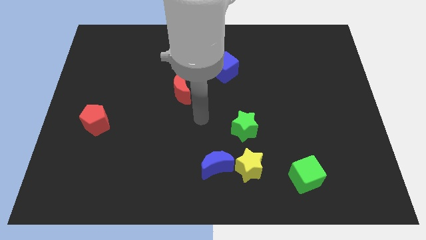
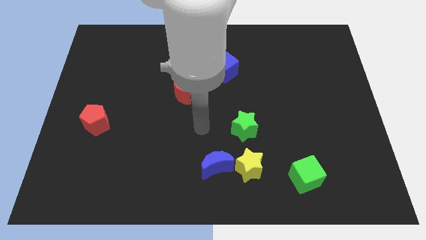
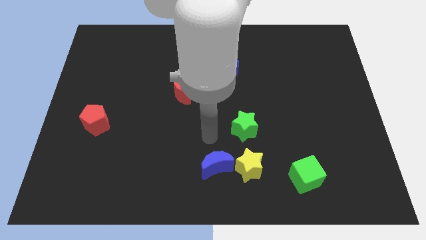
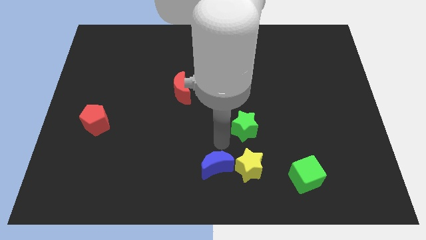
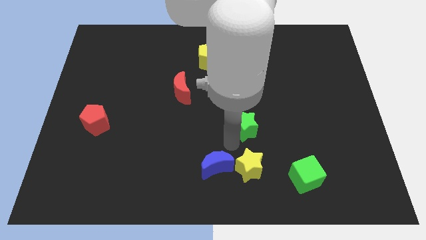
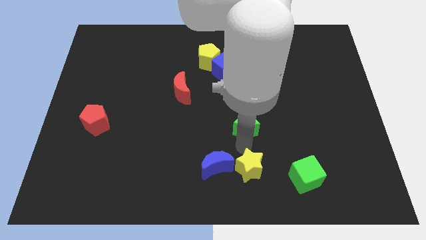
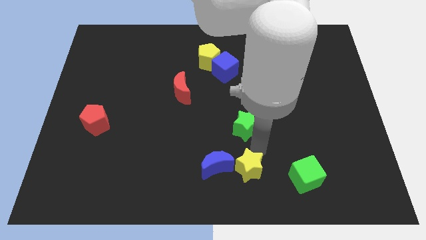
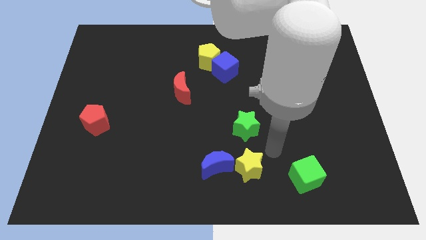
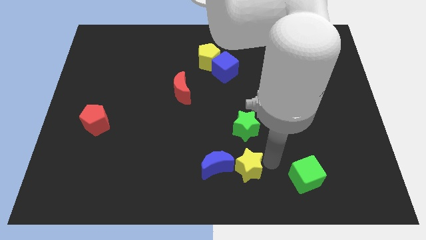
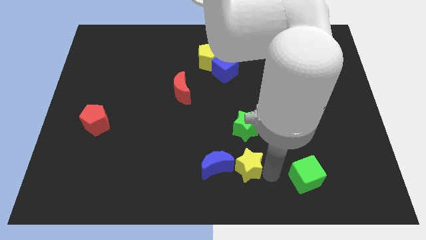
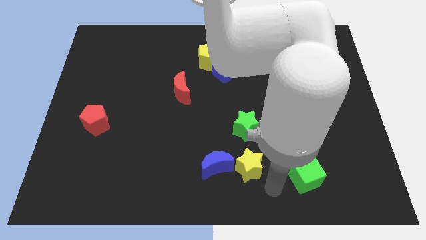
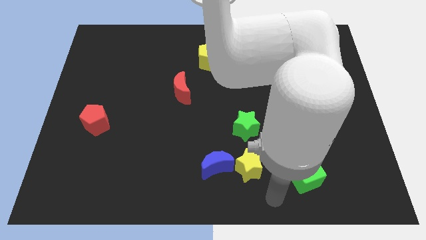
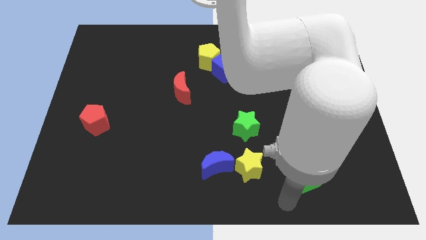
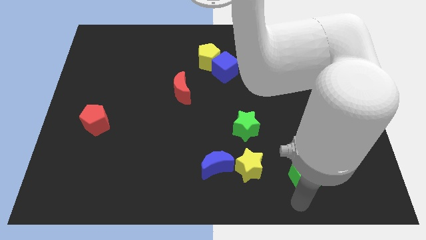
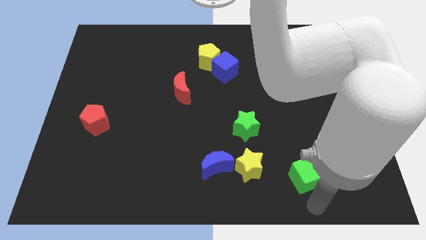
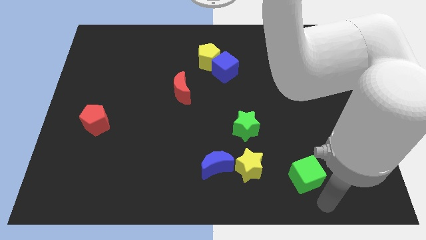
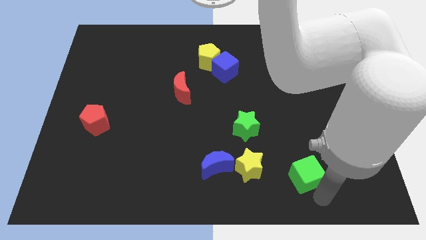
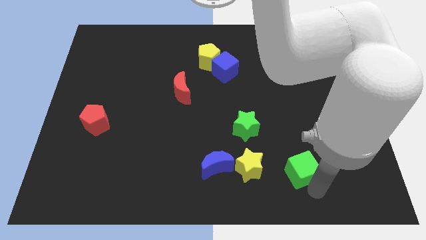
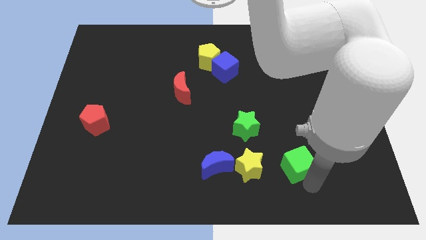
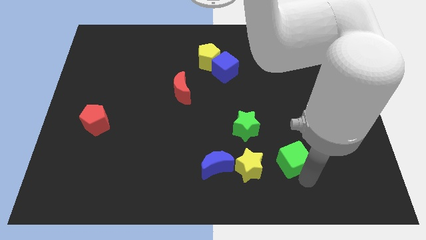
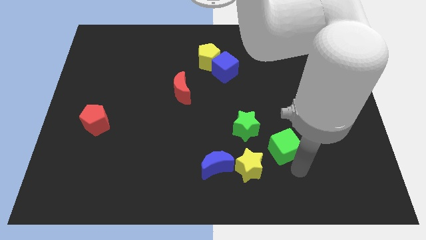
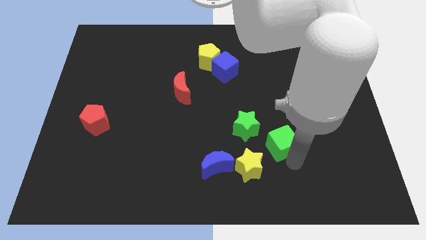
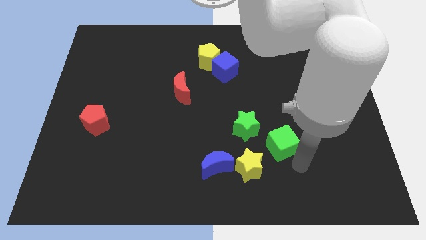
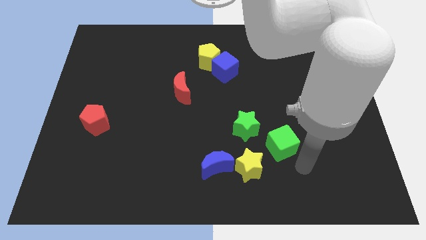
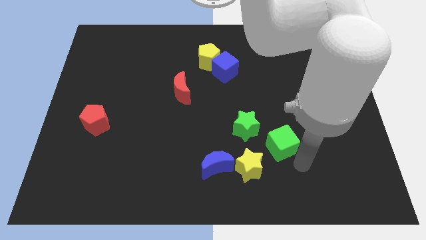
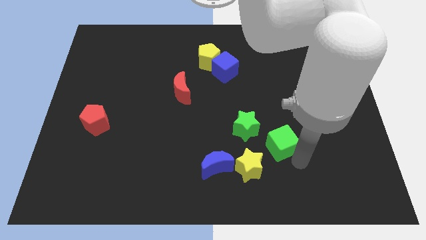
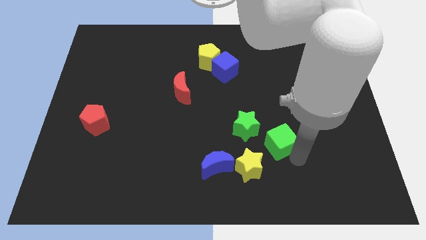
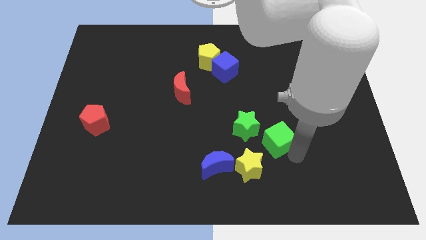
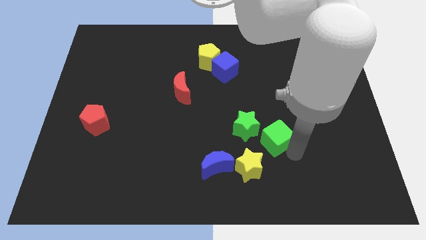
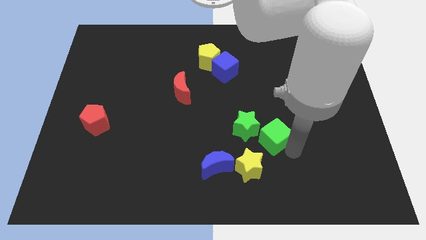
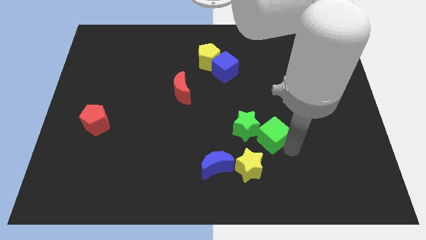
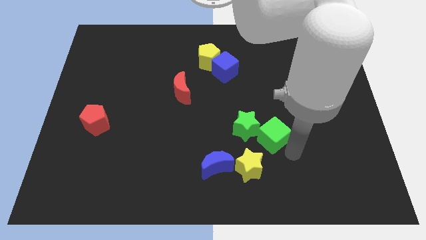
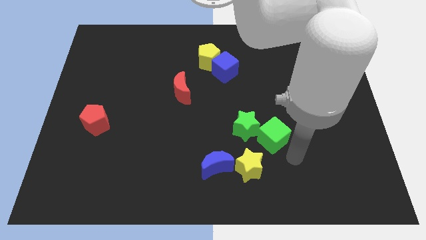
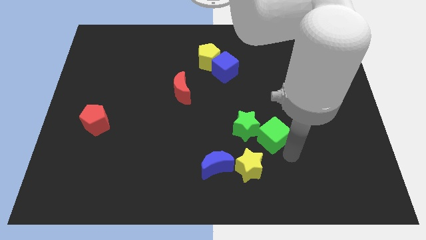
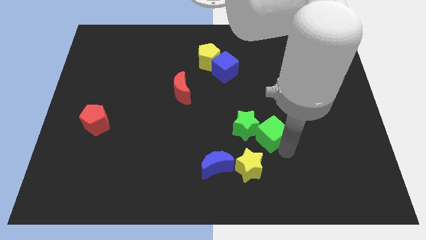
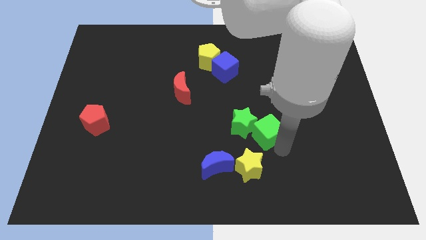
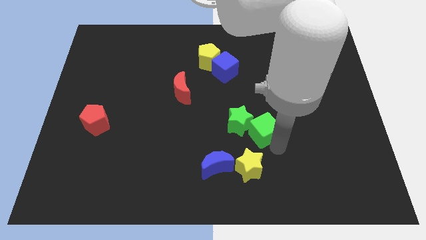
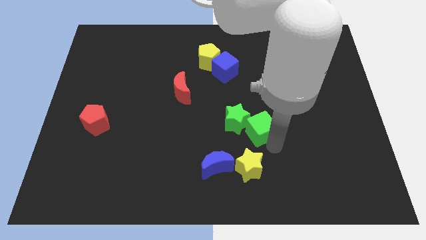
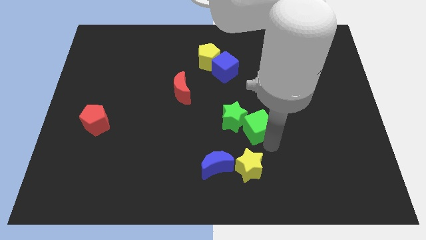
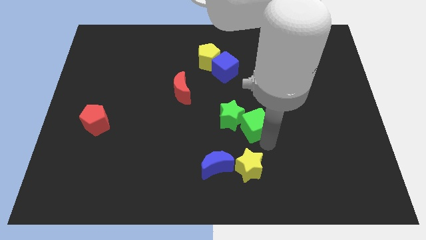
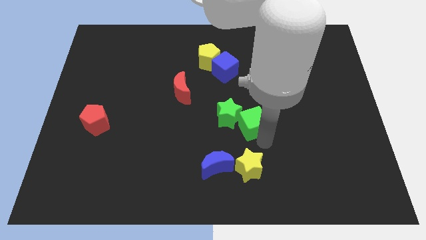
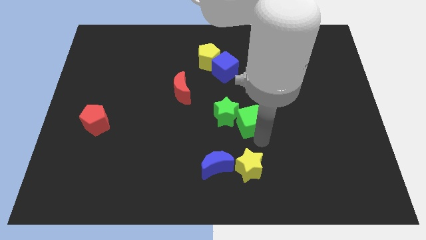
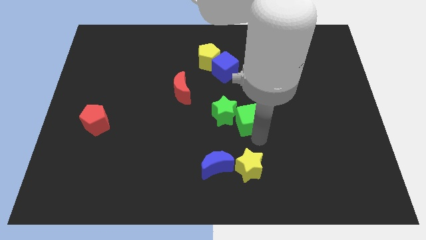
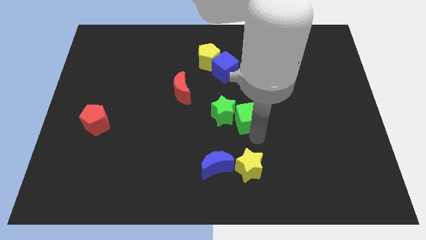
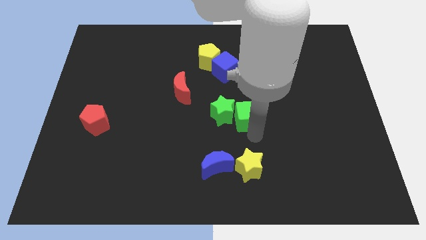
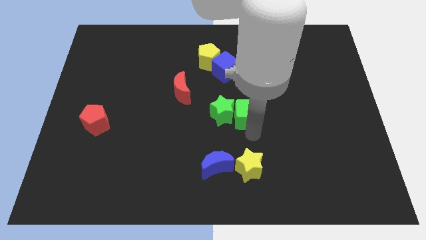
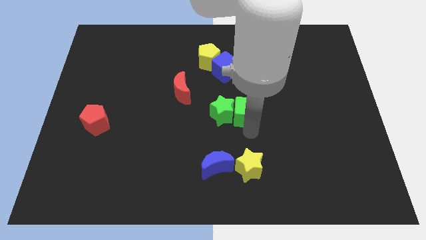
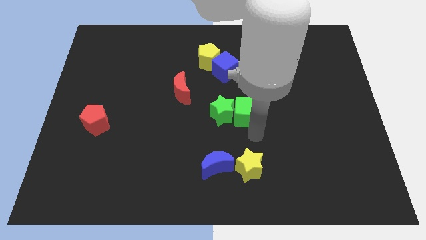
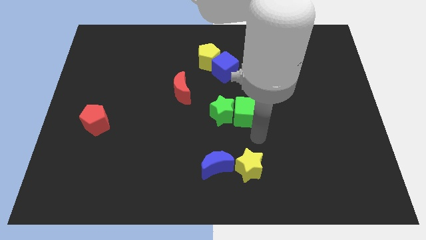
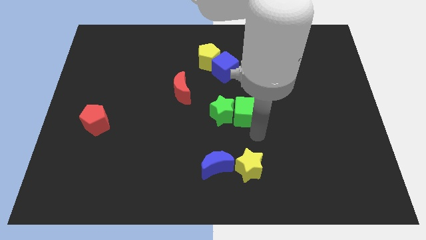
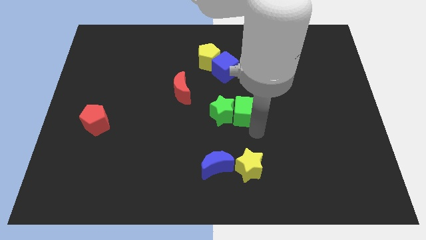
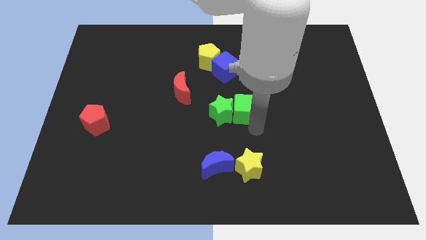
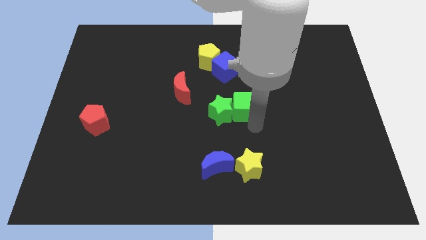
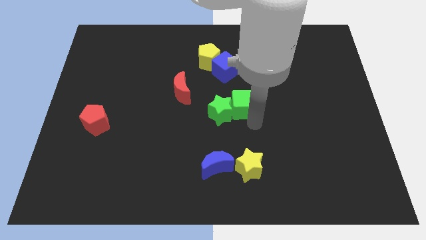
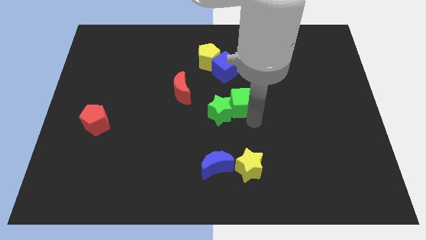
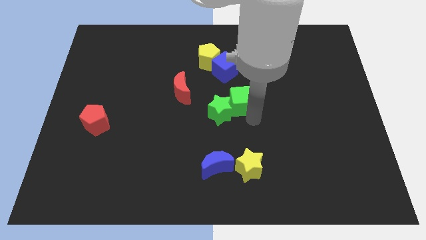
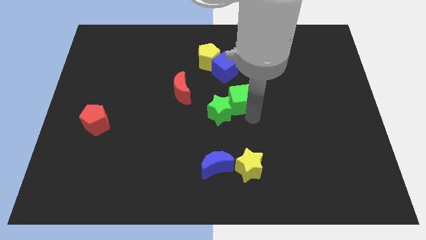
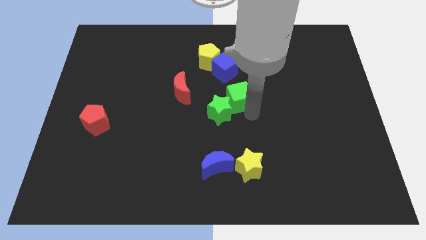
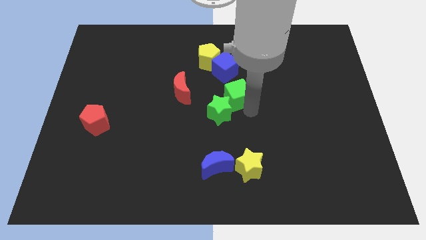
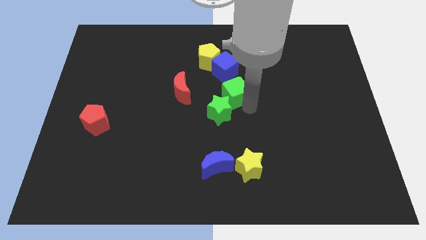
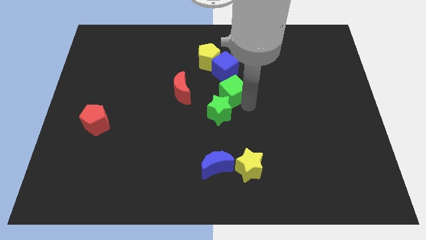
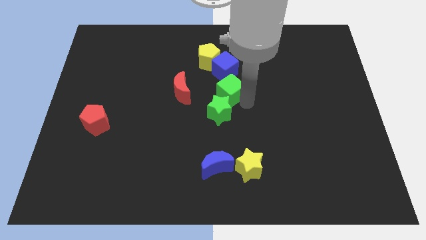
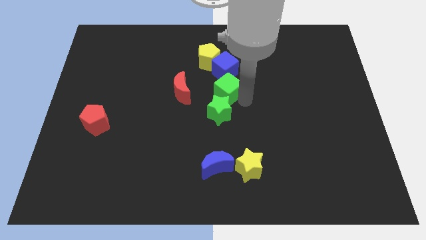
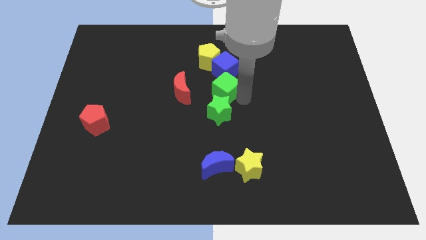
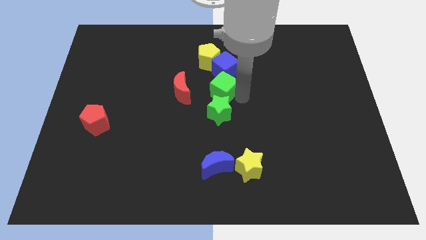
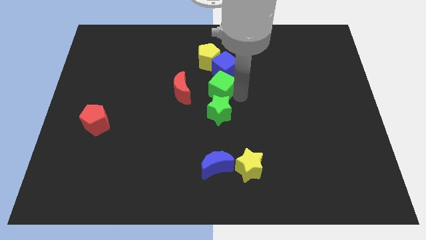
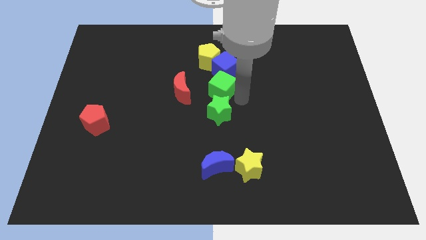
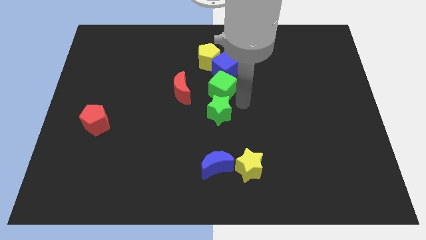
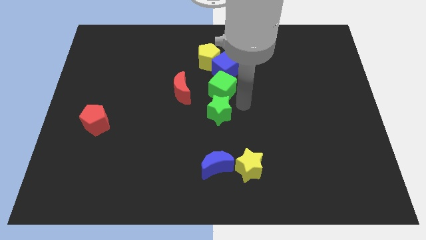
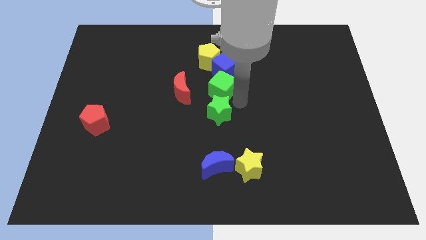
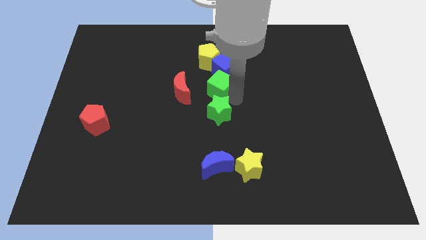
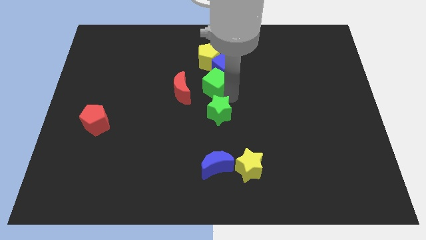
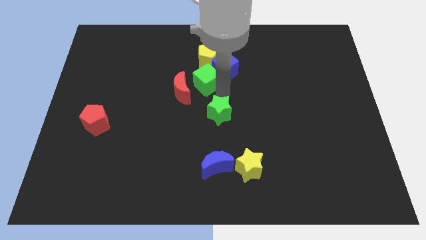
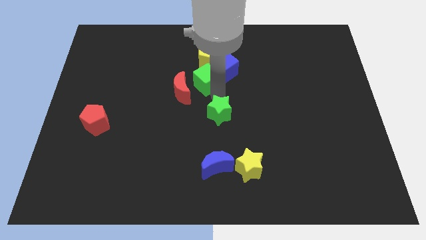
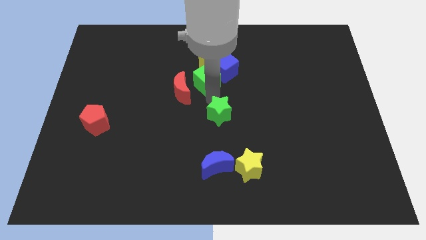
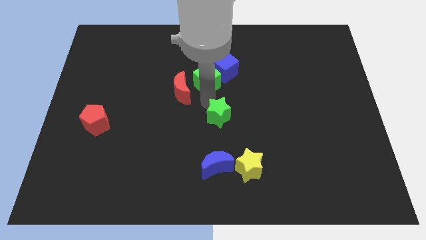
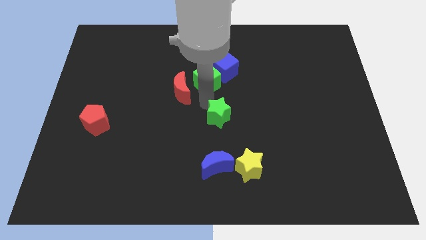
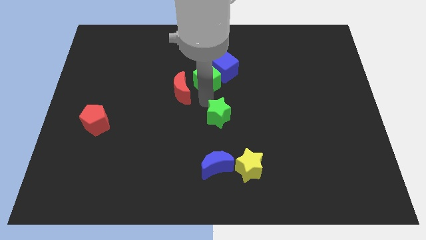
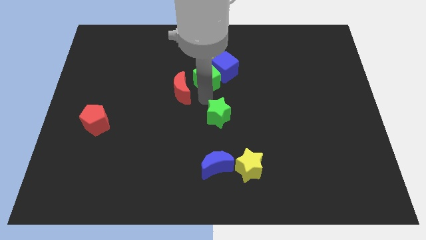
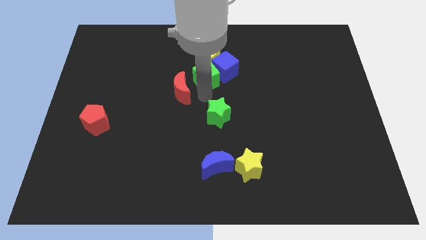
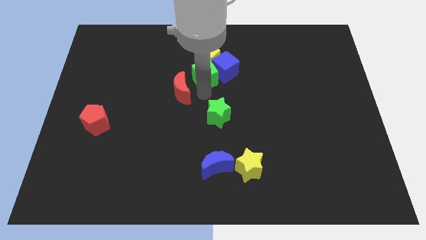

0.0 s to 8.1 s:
push the green cube next to the yellow pentagon
